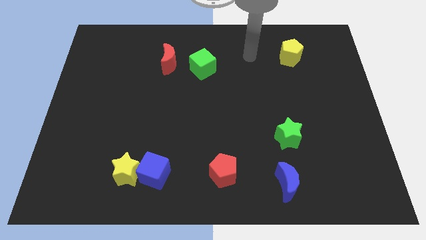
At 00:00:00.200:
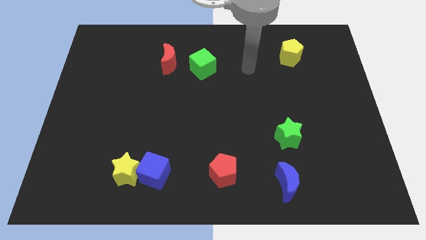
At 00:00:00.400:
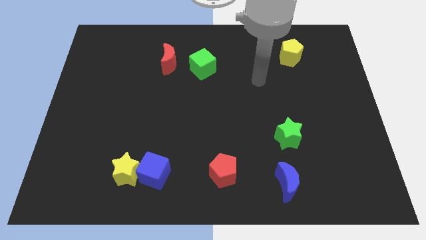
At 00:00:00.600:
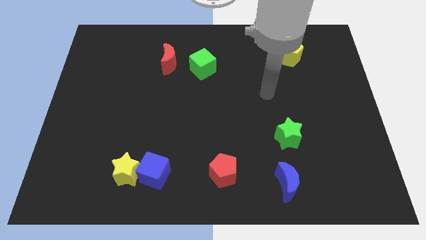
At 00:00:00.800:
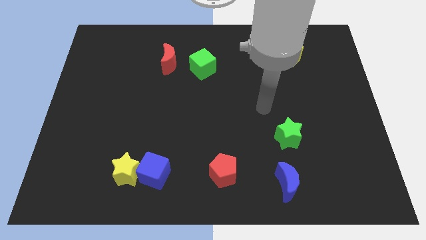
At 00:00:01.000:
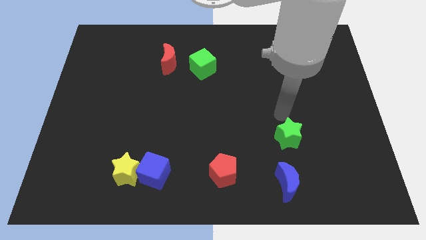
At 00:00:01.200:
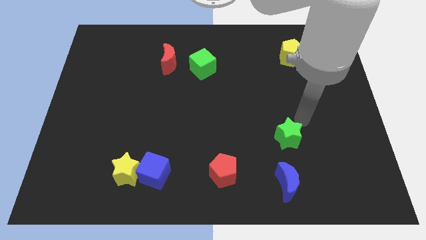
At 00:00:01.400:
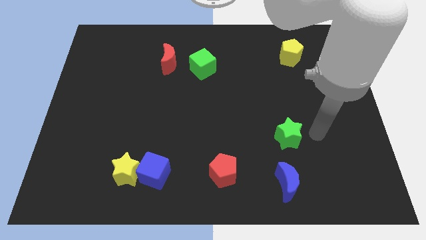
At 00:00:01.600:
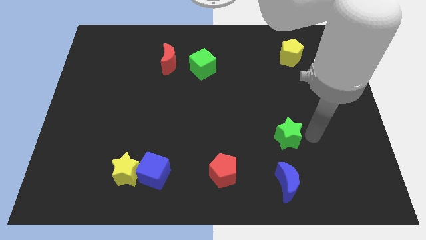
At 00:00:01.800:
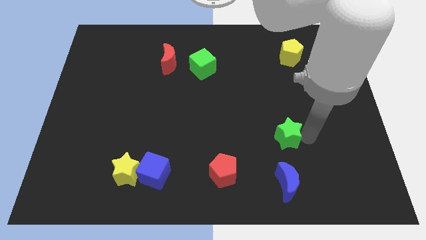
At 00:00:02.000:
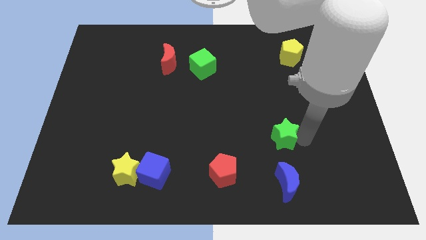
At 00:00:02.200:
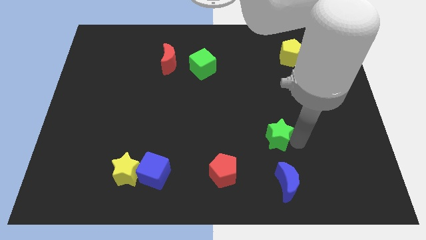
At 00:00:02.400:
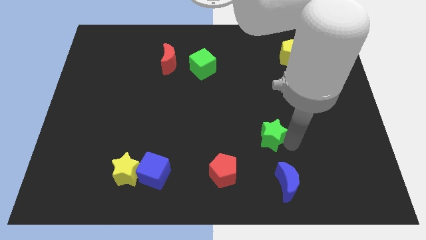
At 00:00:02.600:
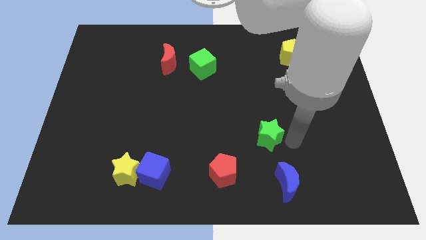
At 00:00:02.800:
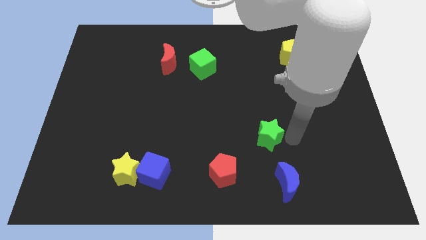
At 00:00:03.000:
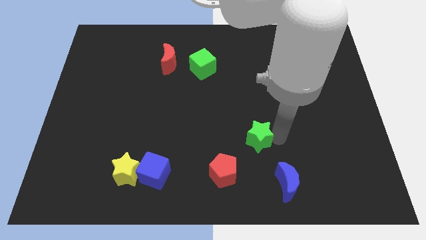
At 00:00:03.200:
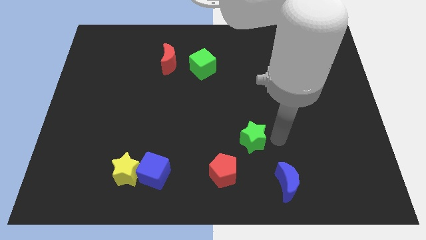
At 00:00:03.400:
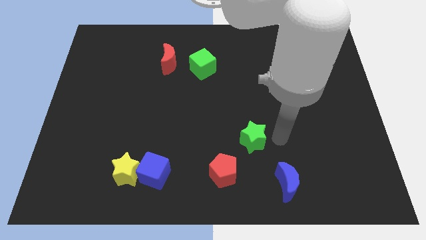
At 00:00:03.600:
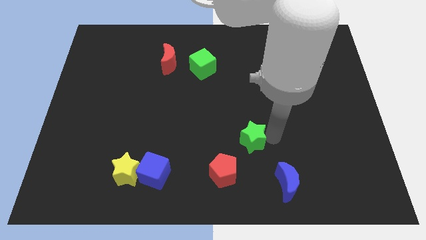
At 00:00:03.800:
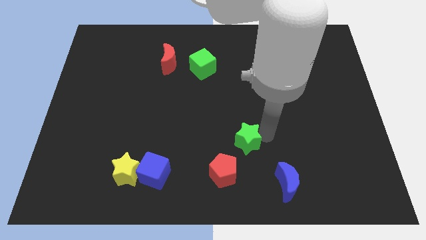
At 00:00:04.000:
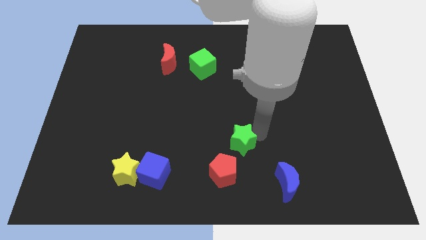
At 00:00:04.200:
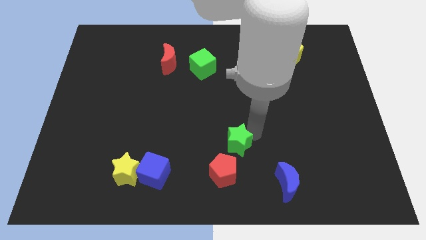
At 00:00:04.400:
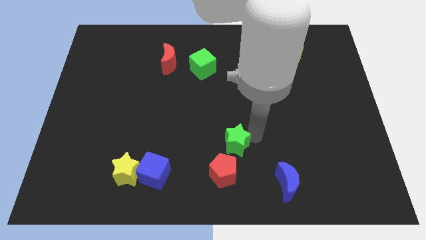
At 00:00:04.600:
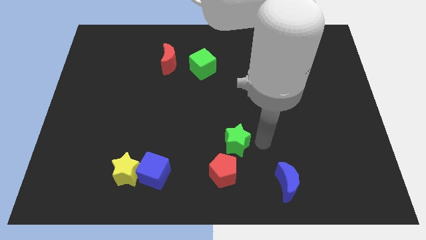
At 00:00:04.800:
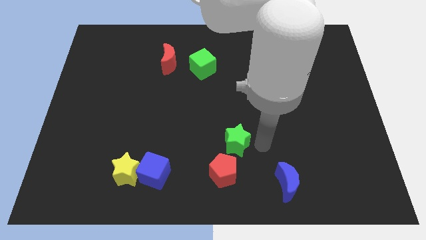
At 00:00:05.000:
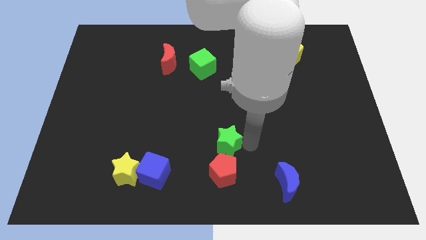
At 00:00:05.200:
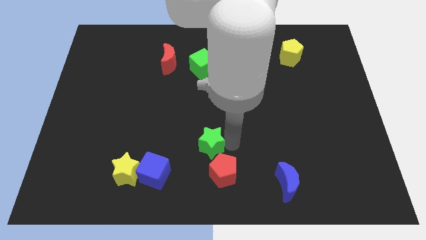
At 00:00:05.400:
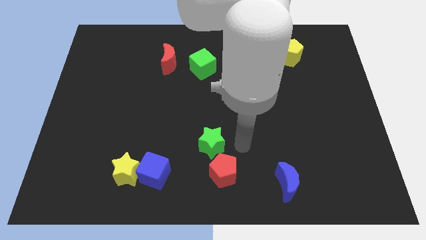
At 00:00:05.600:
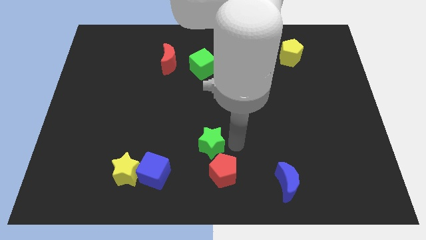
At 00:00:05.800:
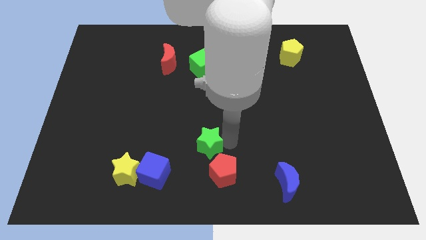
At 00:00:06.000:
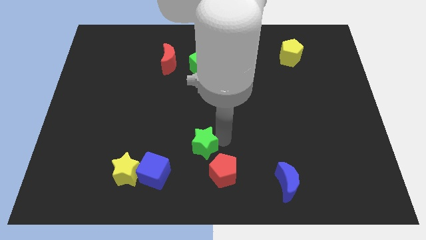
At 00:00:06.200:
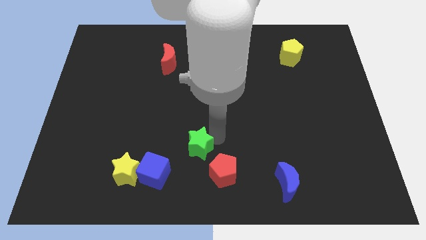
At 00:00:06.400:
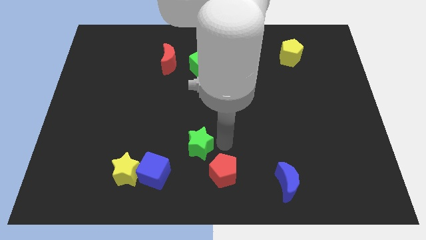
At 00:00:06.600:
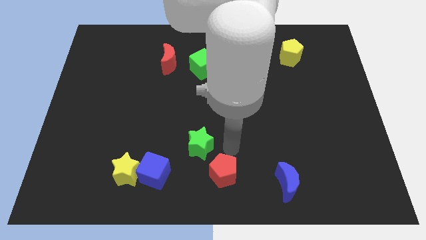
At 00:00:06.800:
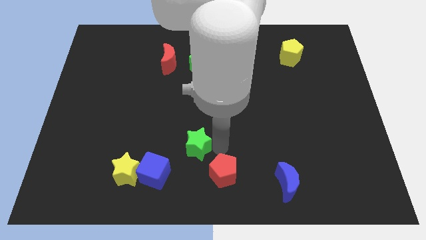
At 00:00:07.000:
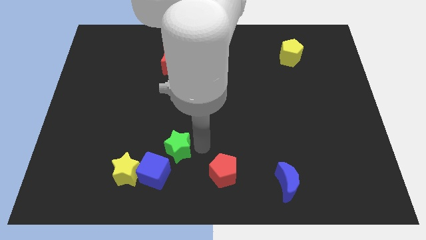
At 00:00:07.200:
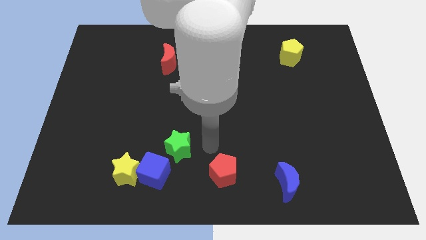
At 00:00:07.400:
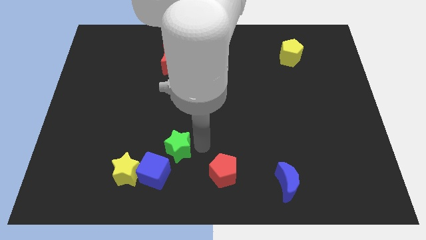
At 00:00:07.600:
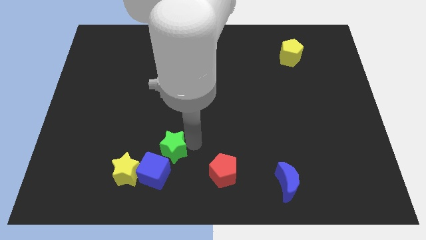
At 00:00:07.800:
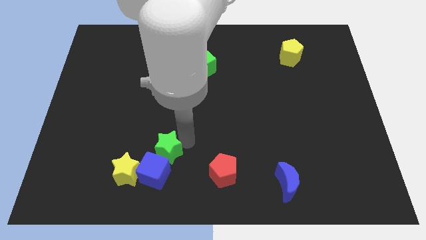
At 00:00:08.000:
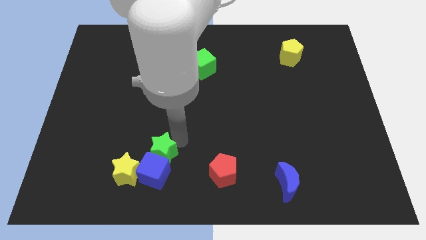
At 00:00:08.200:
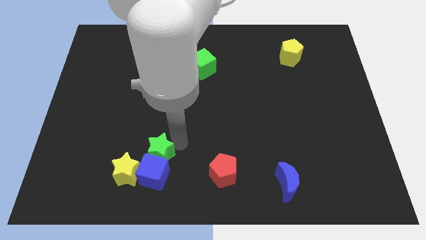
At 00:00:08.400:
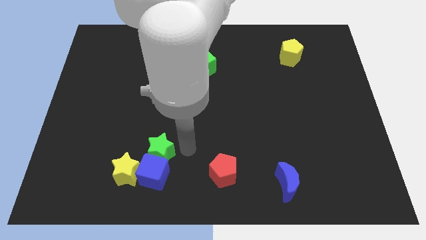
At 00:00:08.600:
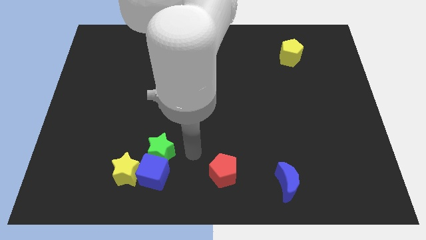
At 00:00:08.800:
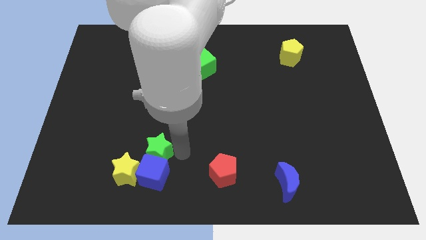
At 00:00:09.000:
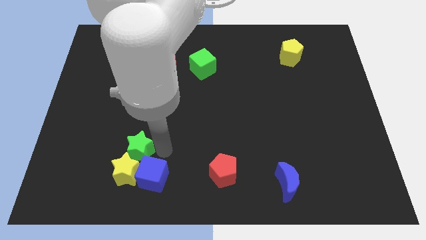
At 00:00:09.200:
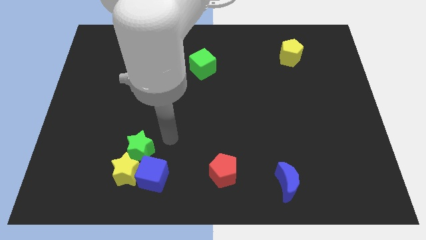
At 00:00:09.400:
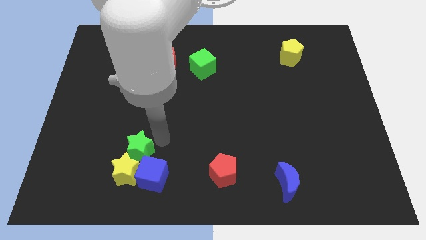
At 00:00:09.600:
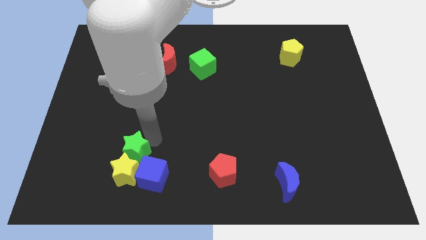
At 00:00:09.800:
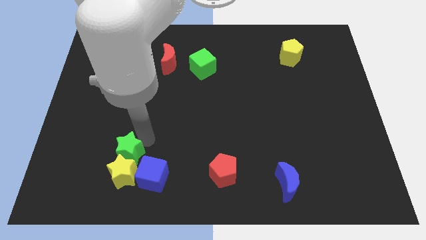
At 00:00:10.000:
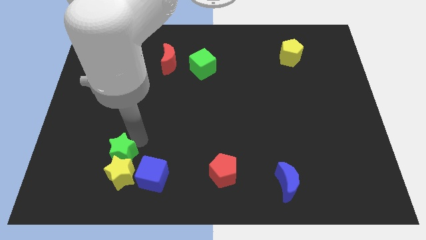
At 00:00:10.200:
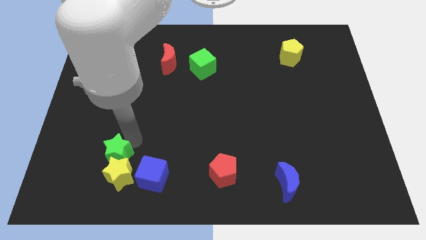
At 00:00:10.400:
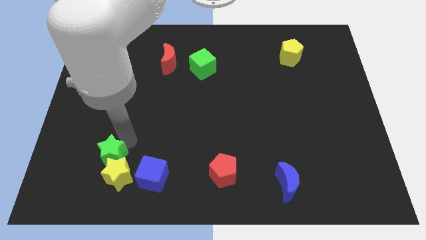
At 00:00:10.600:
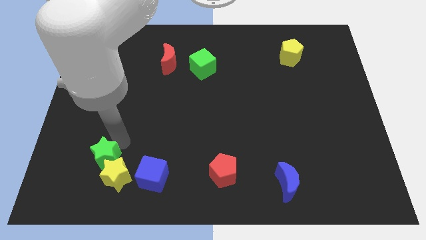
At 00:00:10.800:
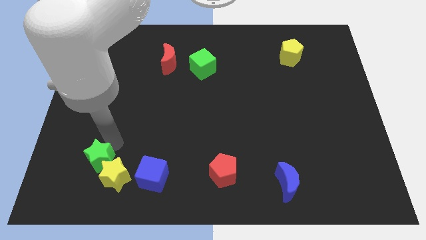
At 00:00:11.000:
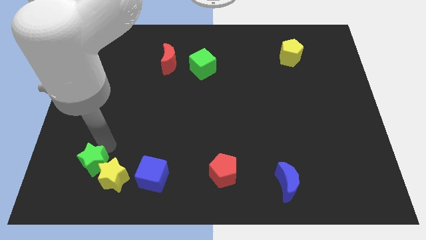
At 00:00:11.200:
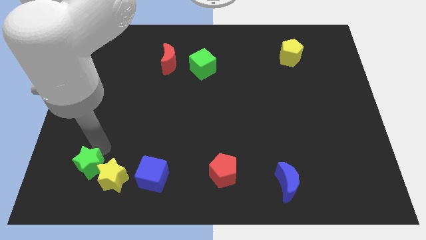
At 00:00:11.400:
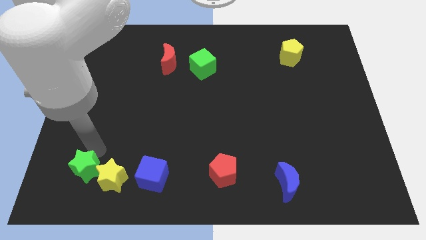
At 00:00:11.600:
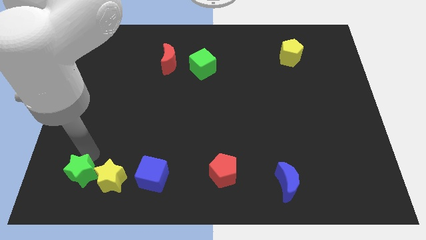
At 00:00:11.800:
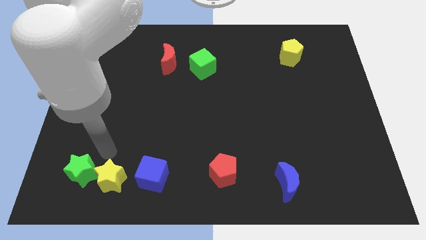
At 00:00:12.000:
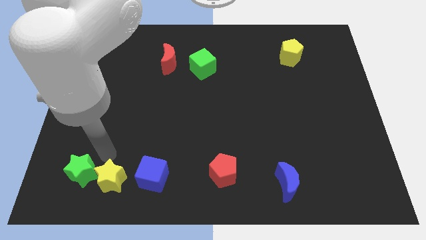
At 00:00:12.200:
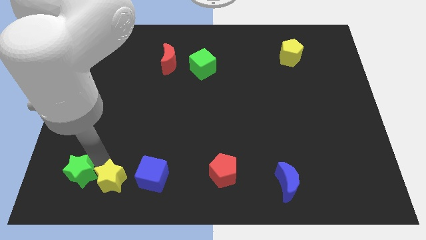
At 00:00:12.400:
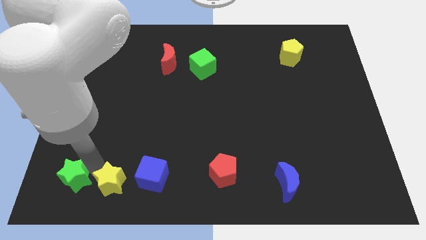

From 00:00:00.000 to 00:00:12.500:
put the green star to the bottom left of the board

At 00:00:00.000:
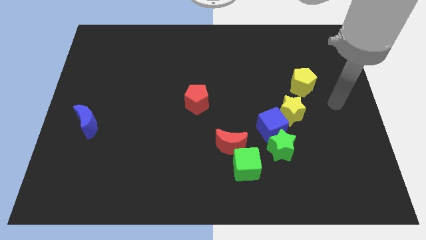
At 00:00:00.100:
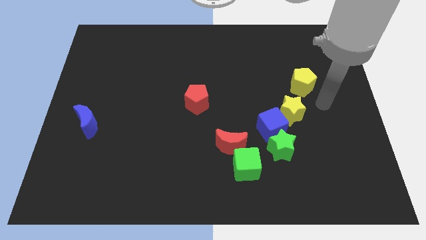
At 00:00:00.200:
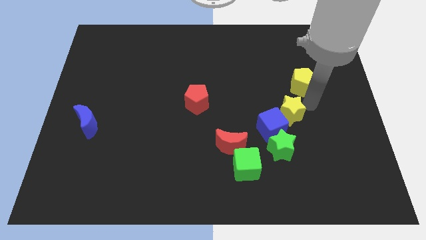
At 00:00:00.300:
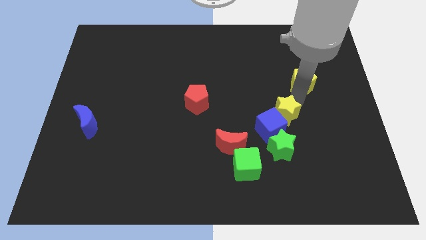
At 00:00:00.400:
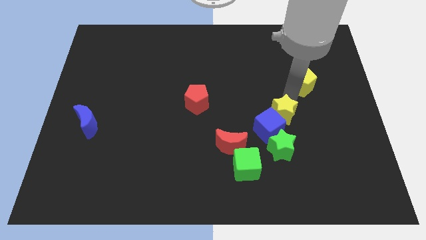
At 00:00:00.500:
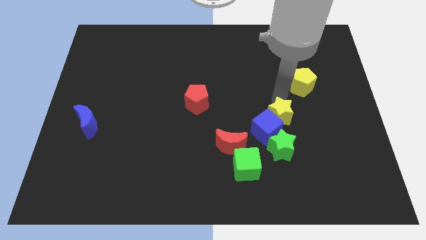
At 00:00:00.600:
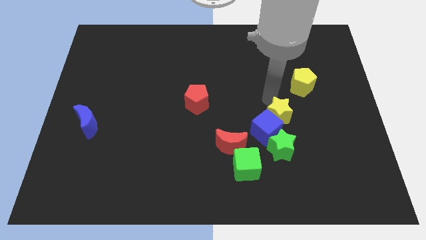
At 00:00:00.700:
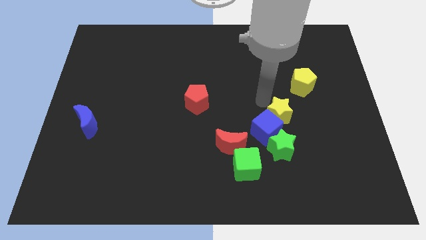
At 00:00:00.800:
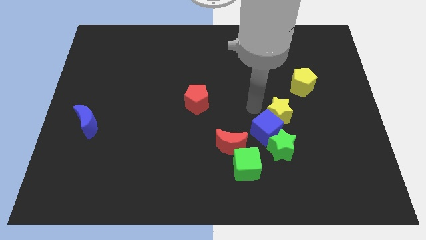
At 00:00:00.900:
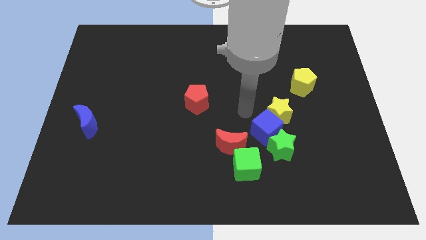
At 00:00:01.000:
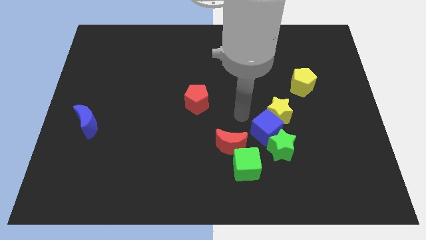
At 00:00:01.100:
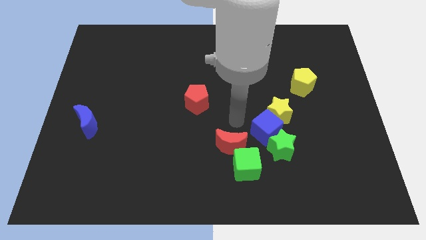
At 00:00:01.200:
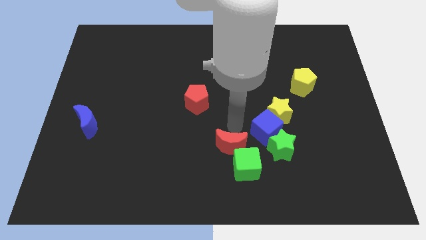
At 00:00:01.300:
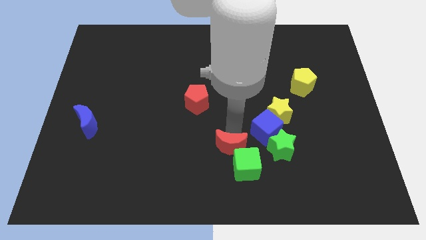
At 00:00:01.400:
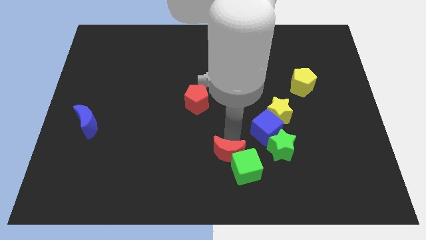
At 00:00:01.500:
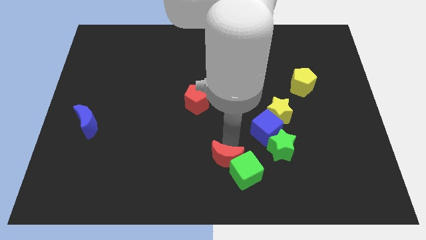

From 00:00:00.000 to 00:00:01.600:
push the red moon to the bottom
